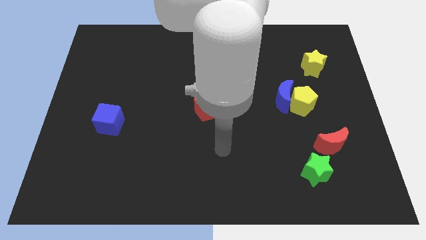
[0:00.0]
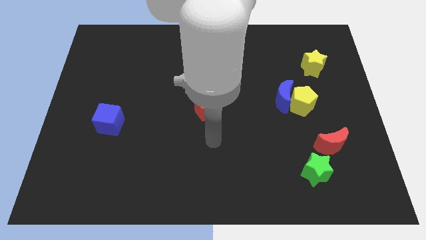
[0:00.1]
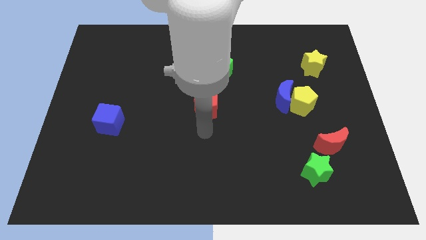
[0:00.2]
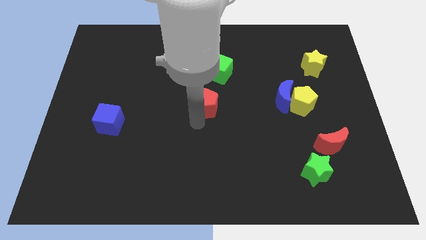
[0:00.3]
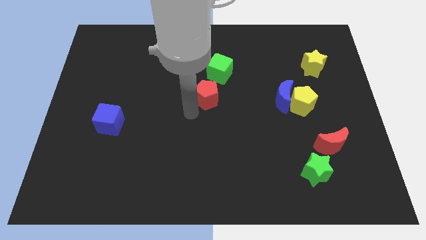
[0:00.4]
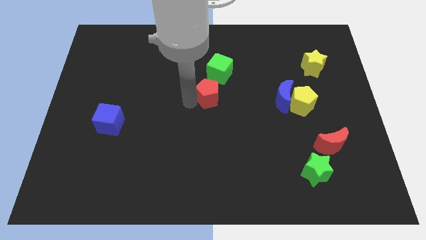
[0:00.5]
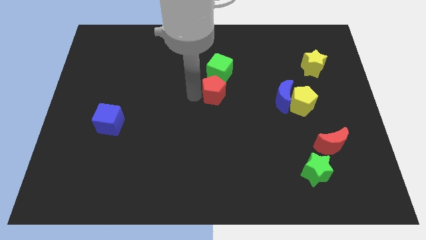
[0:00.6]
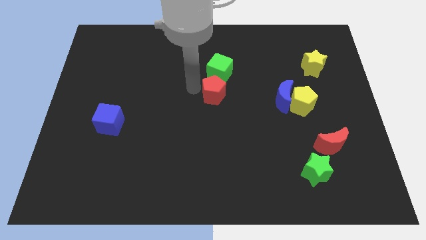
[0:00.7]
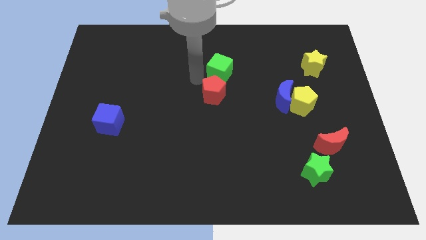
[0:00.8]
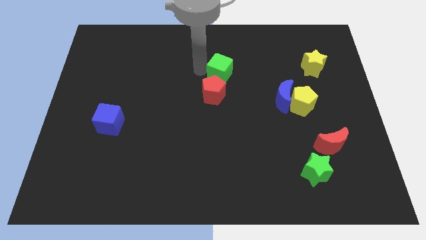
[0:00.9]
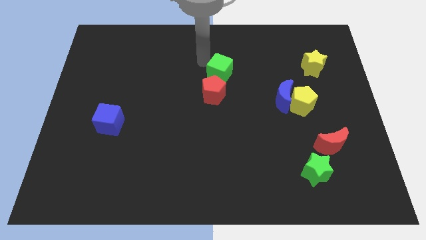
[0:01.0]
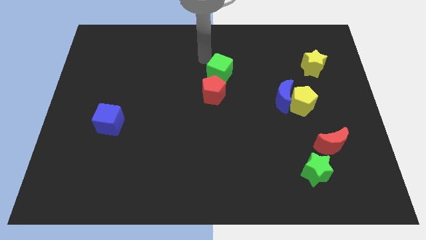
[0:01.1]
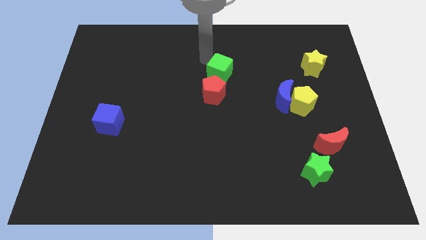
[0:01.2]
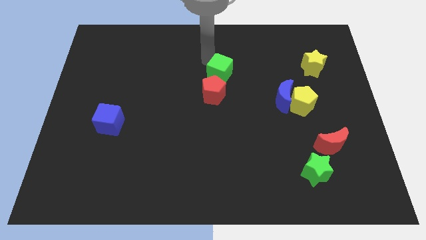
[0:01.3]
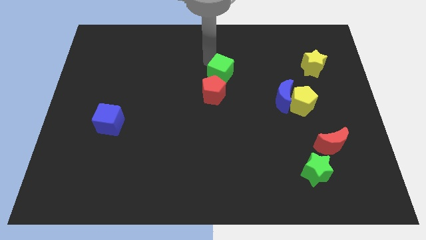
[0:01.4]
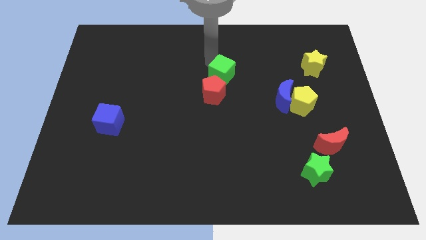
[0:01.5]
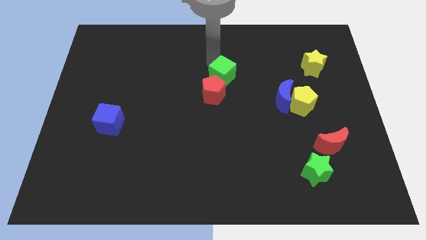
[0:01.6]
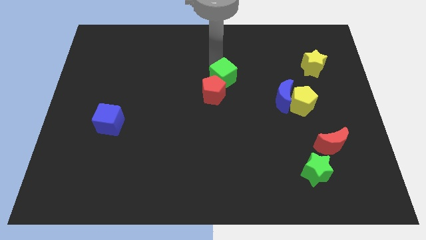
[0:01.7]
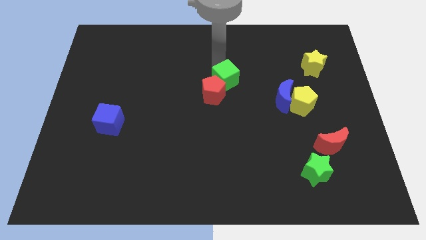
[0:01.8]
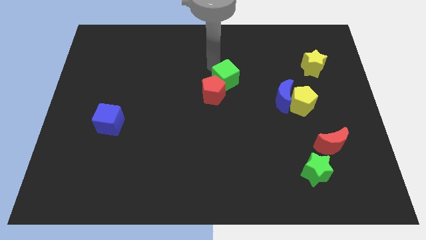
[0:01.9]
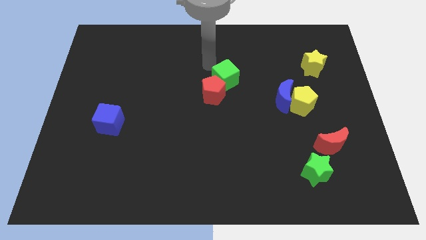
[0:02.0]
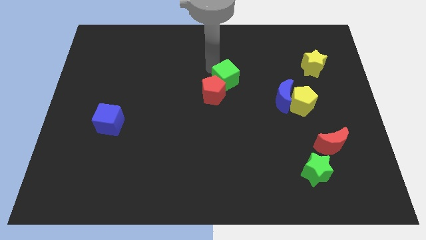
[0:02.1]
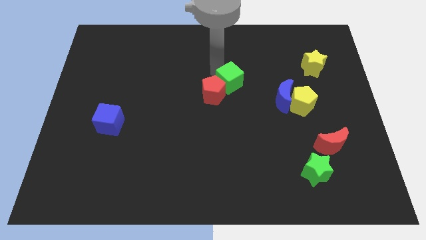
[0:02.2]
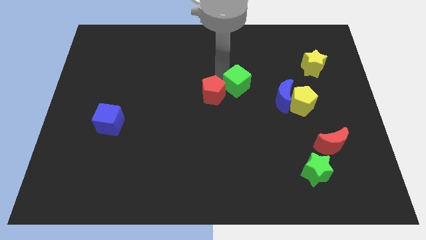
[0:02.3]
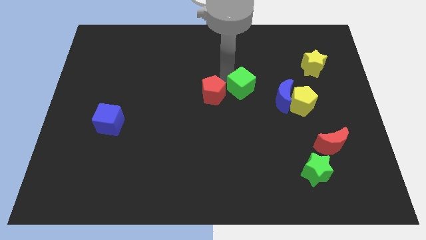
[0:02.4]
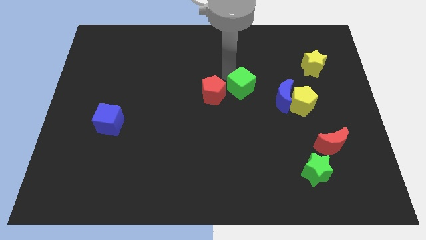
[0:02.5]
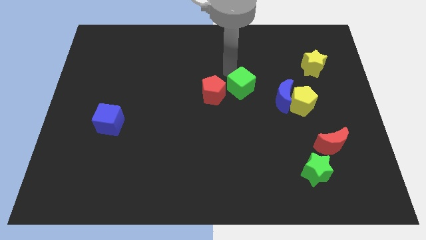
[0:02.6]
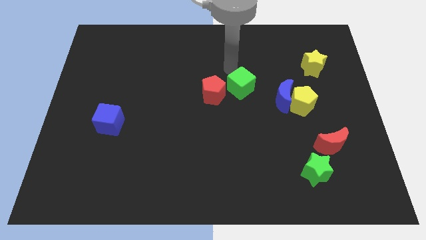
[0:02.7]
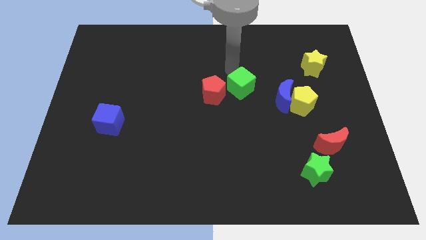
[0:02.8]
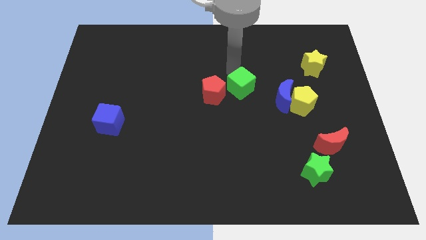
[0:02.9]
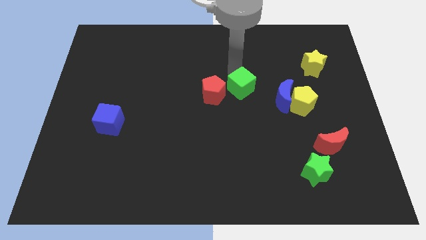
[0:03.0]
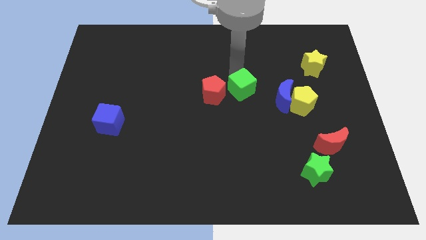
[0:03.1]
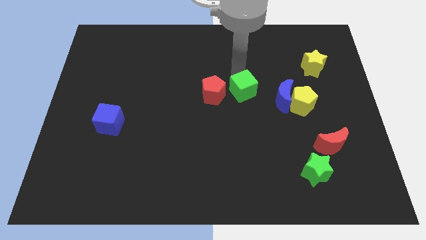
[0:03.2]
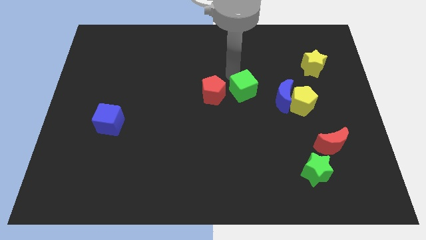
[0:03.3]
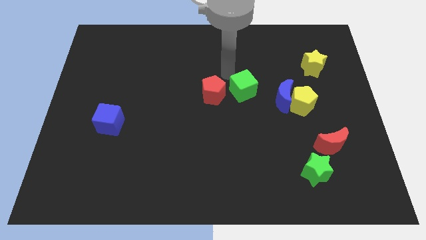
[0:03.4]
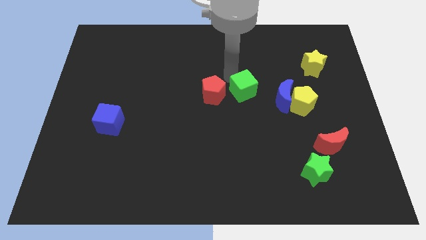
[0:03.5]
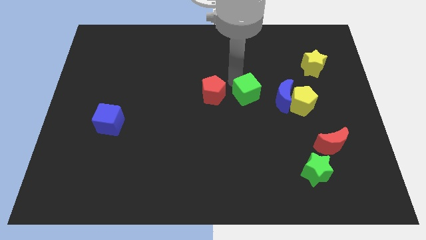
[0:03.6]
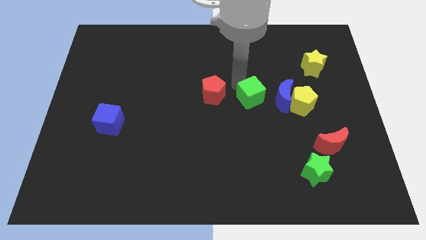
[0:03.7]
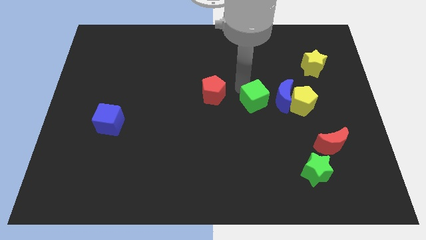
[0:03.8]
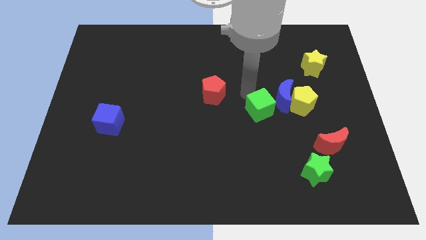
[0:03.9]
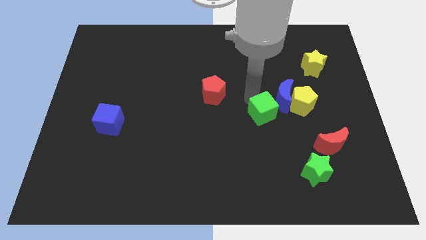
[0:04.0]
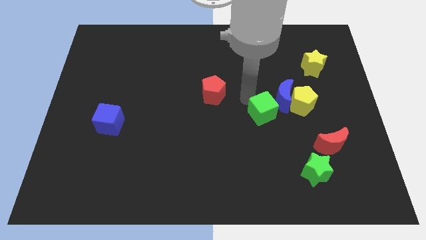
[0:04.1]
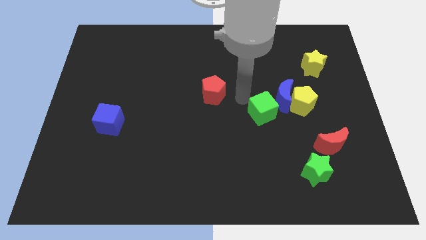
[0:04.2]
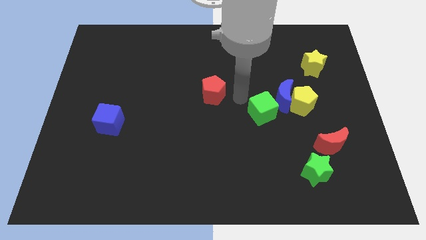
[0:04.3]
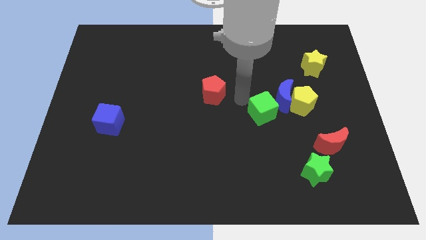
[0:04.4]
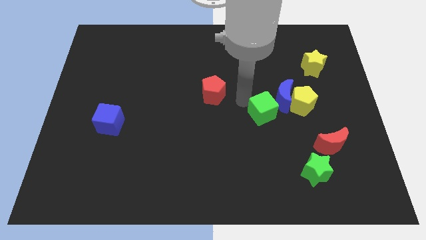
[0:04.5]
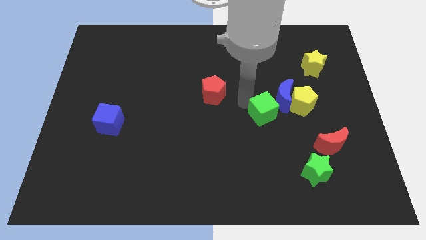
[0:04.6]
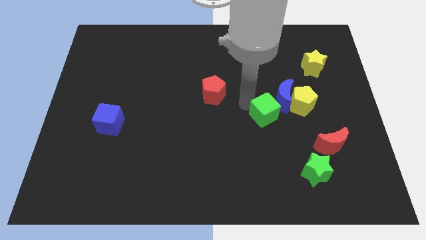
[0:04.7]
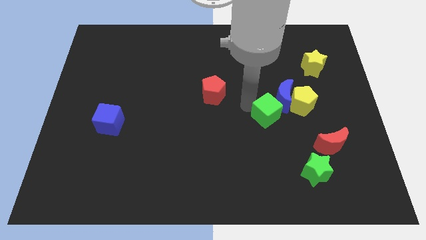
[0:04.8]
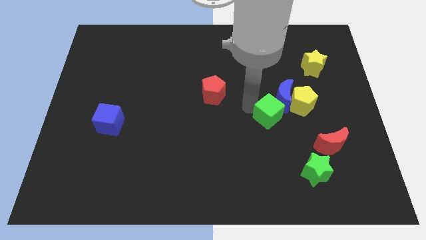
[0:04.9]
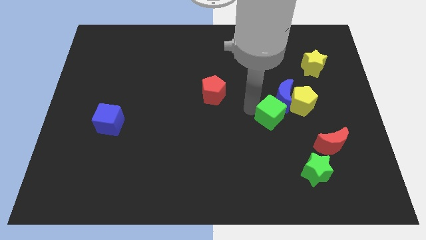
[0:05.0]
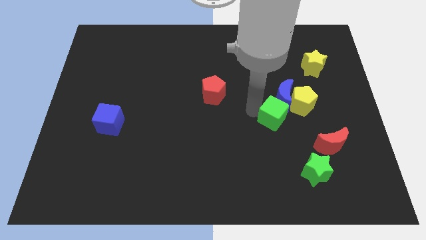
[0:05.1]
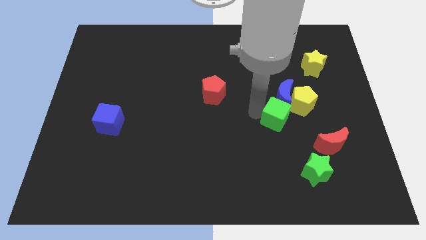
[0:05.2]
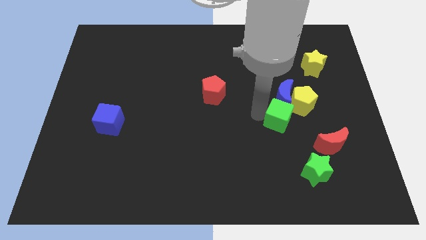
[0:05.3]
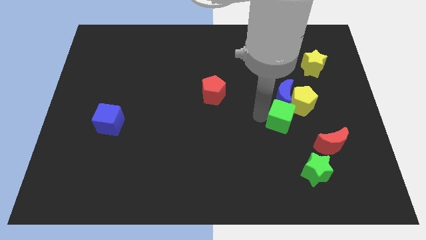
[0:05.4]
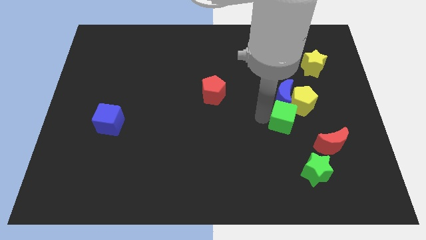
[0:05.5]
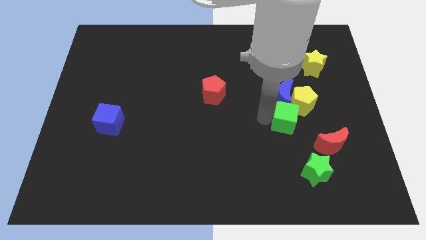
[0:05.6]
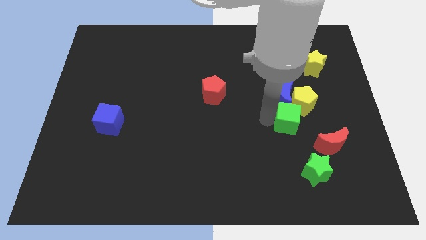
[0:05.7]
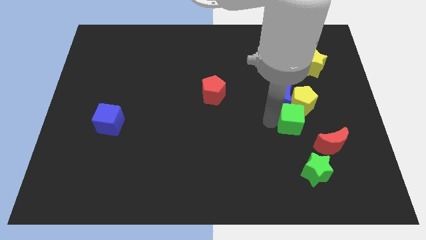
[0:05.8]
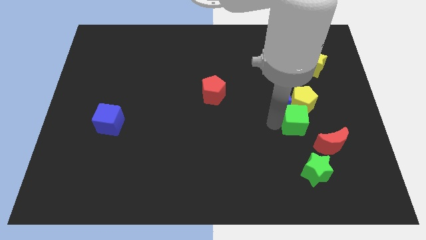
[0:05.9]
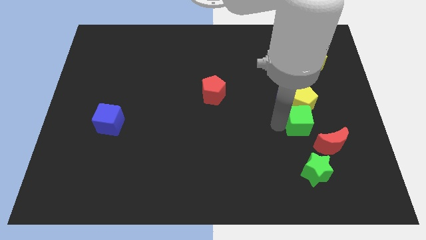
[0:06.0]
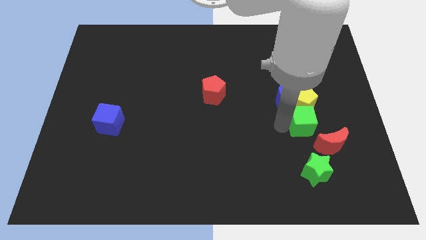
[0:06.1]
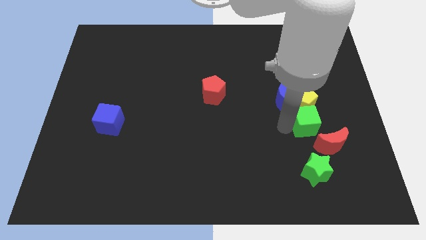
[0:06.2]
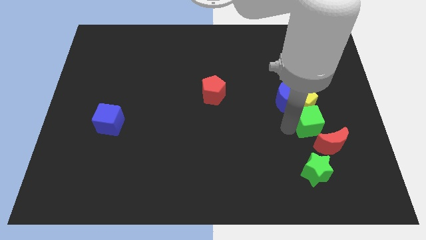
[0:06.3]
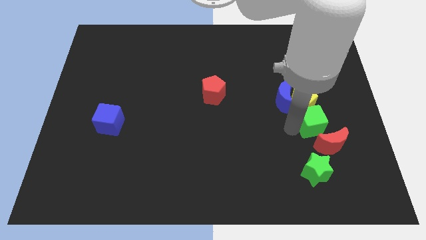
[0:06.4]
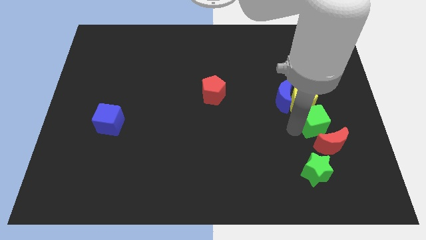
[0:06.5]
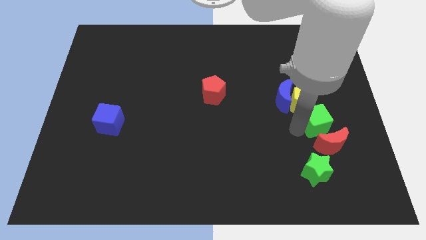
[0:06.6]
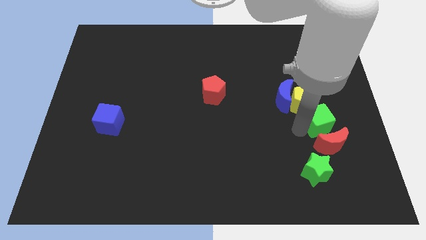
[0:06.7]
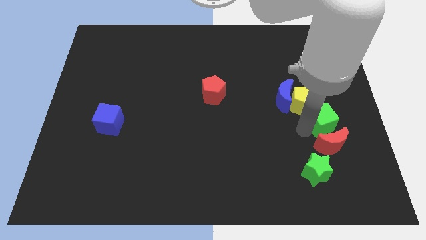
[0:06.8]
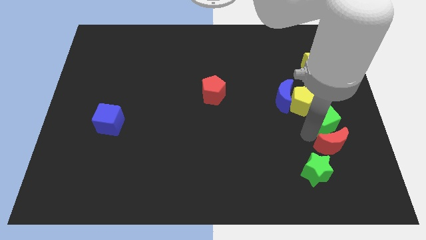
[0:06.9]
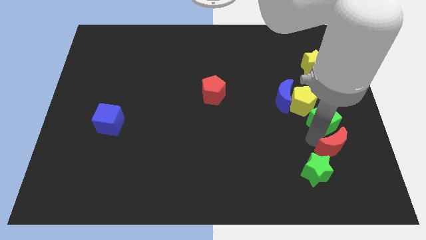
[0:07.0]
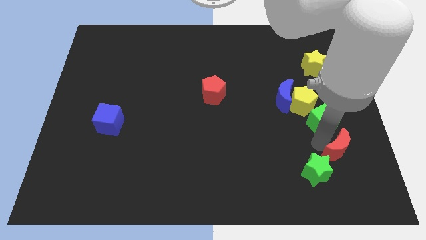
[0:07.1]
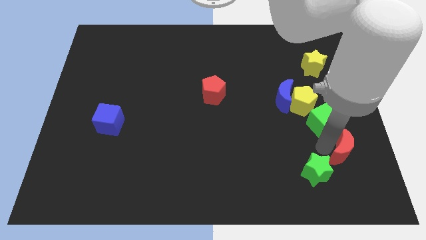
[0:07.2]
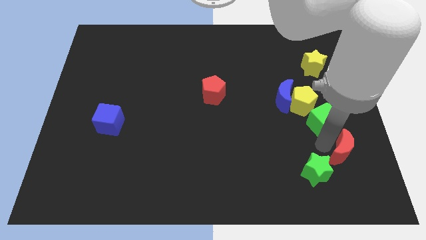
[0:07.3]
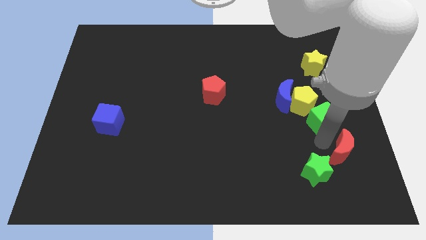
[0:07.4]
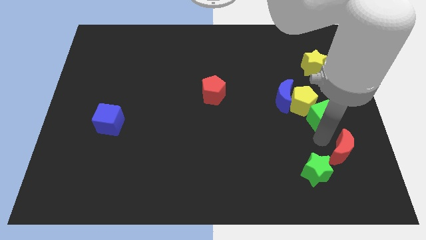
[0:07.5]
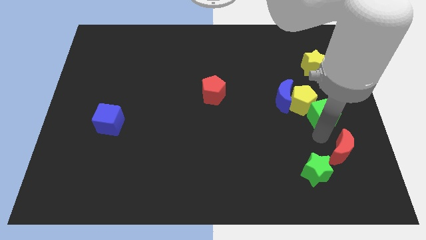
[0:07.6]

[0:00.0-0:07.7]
move the green cube to the bottom side of the yellow star
